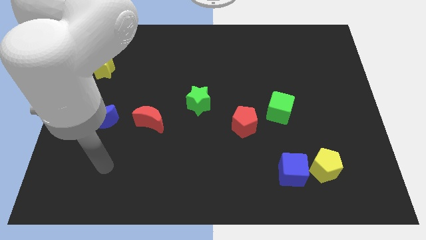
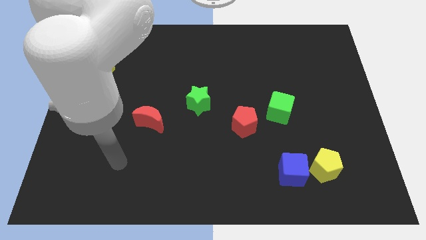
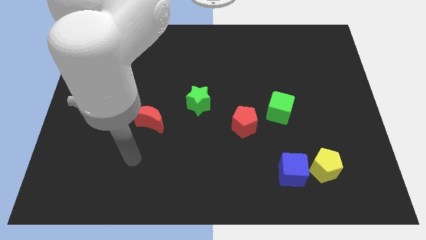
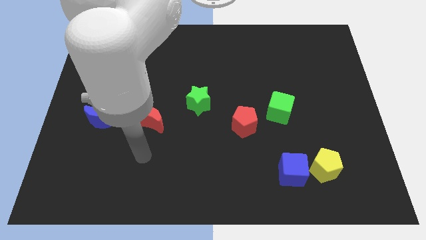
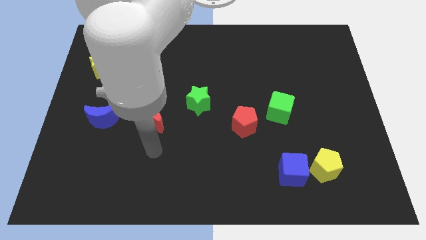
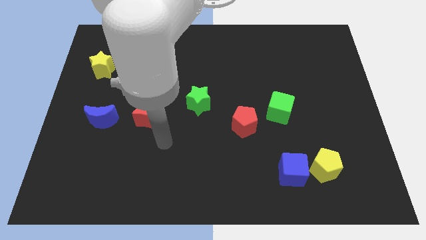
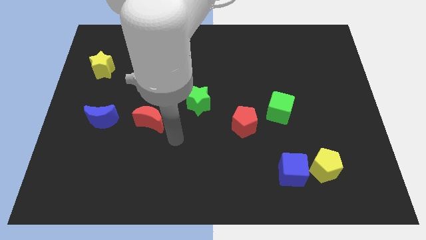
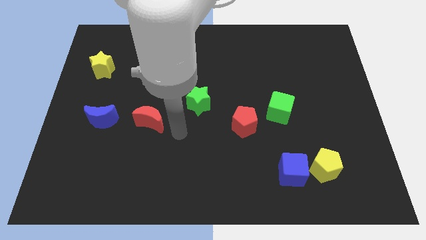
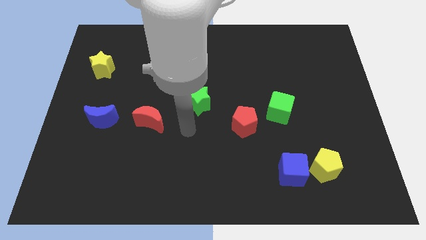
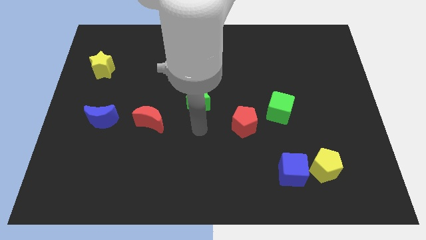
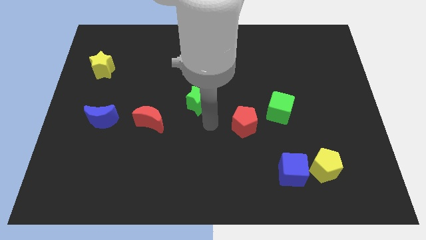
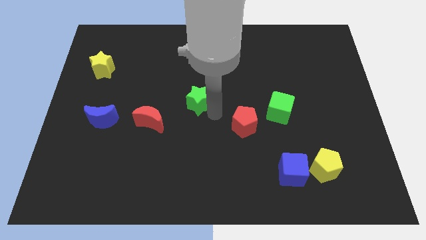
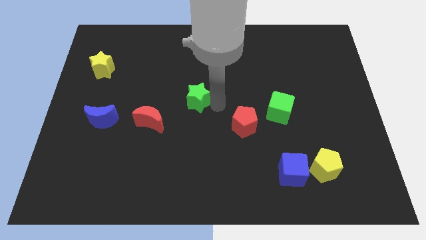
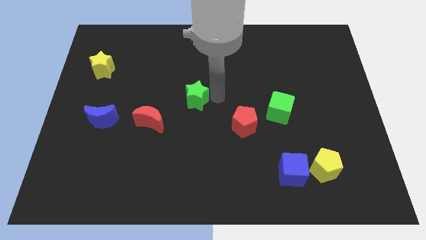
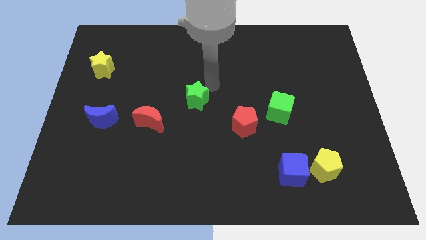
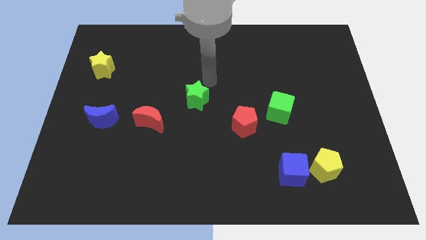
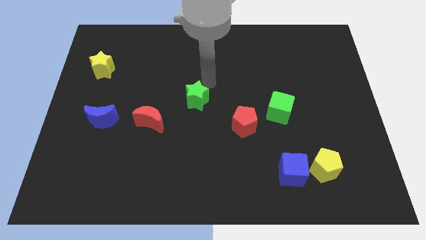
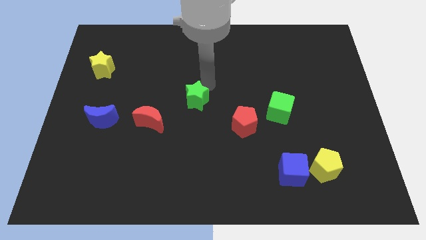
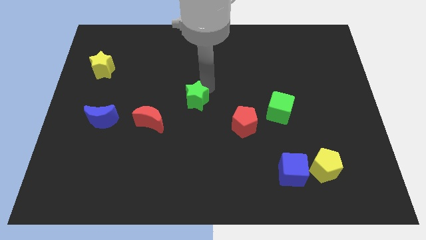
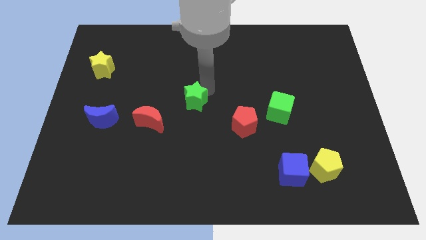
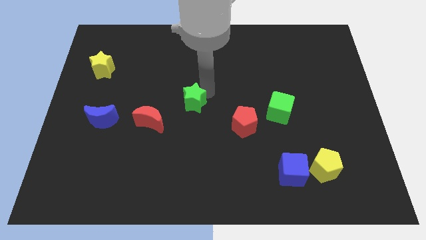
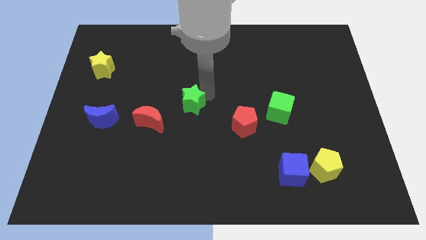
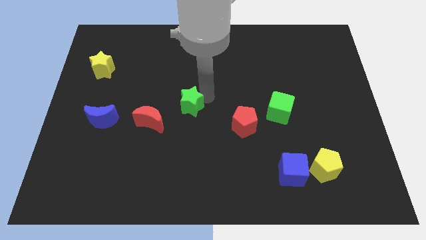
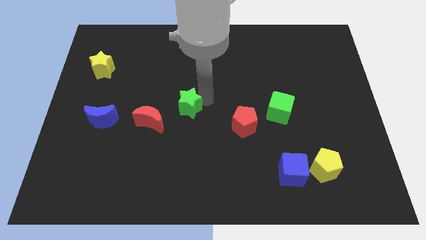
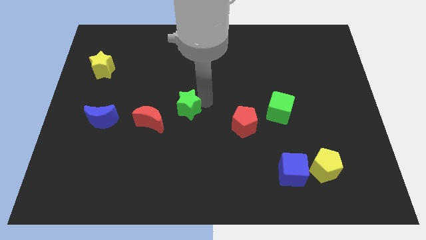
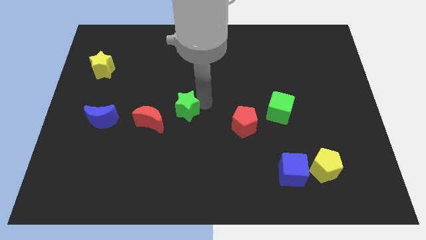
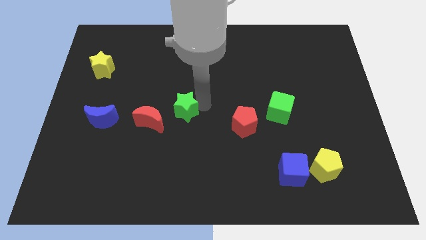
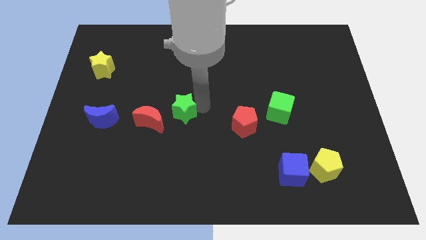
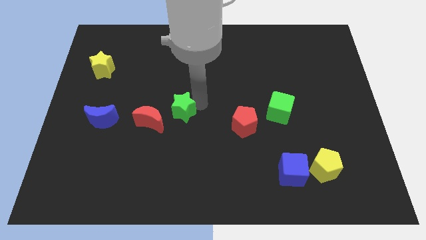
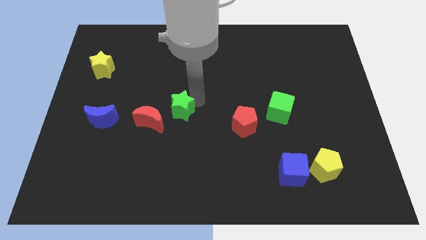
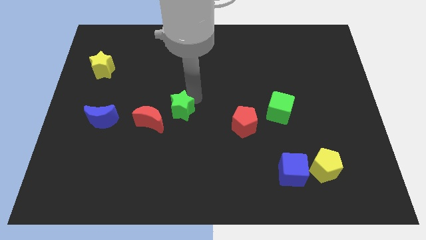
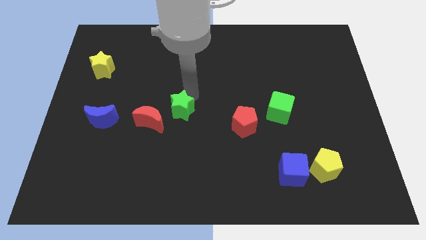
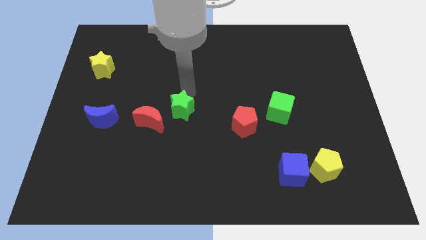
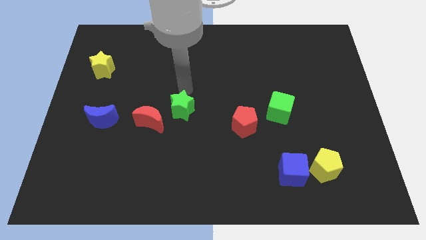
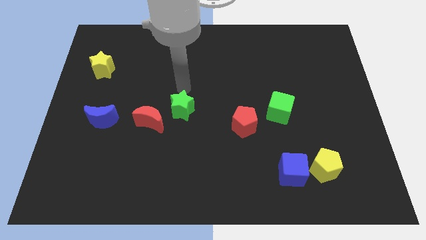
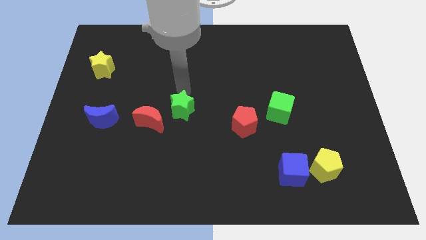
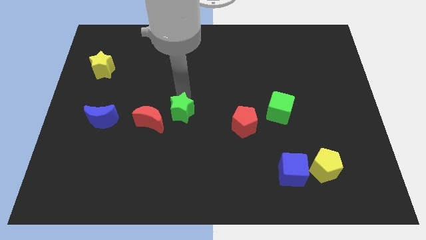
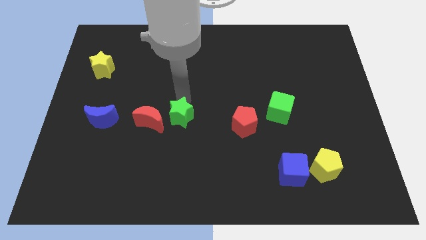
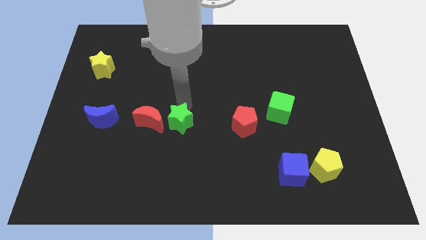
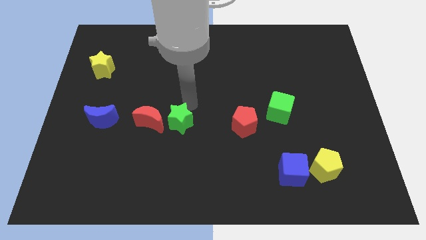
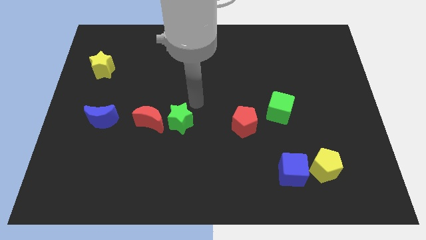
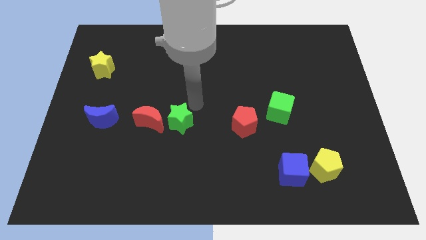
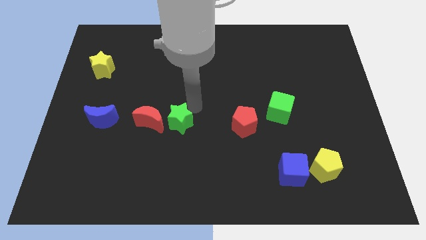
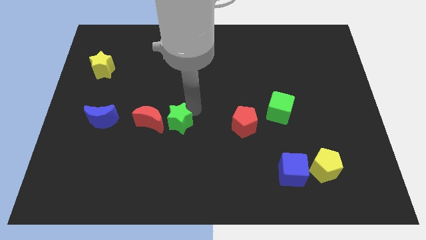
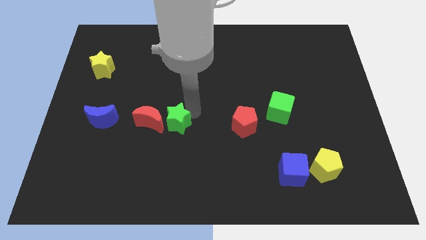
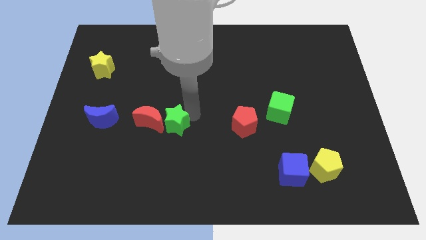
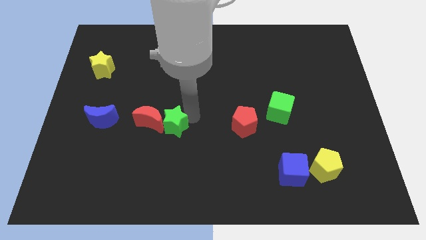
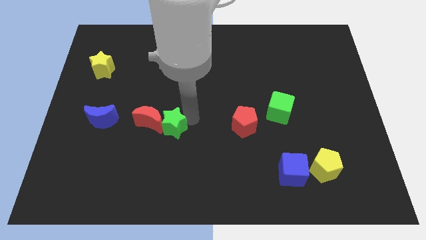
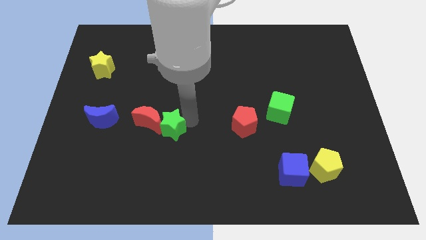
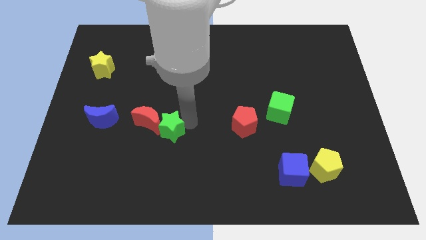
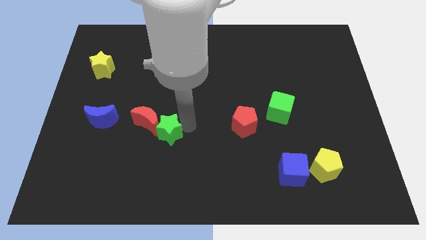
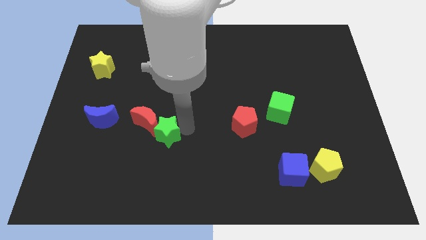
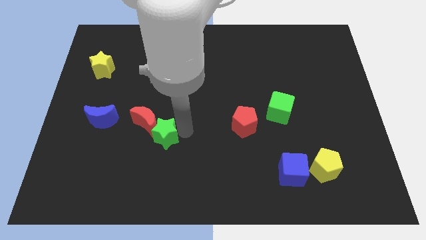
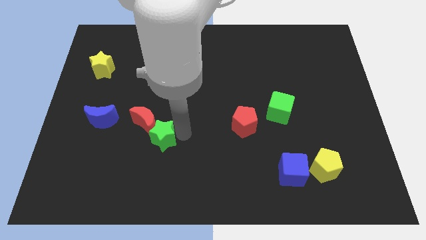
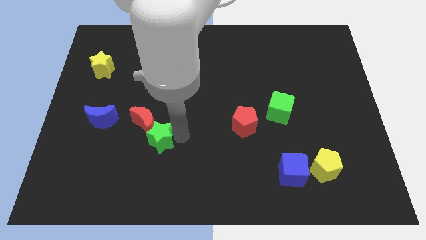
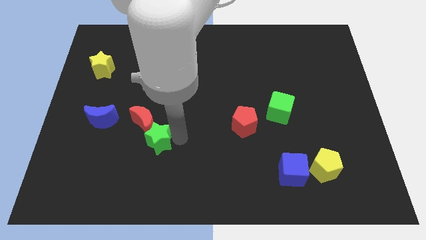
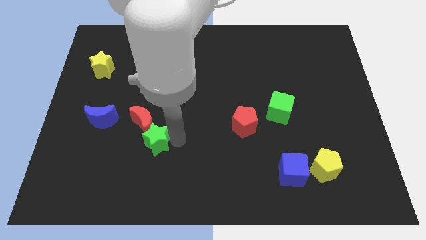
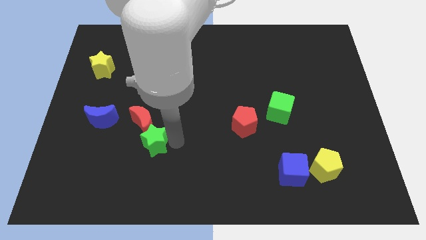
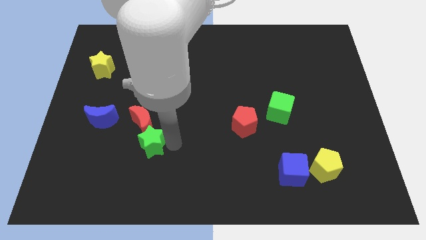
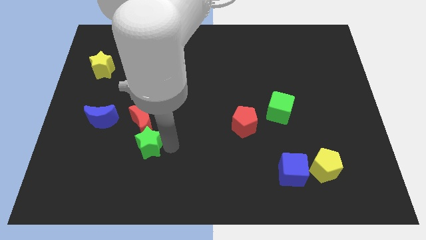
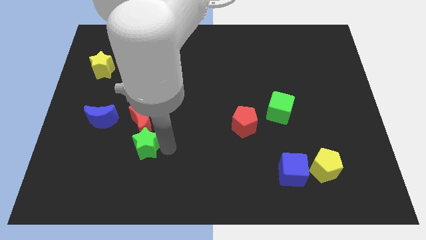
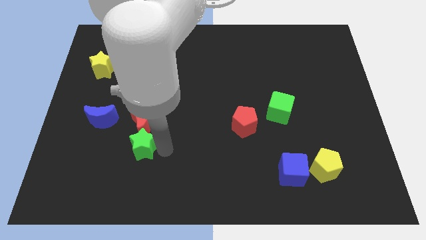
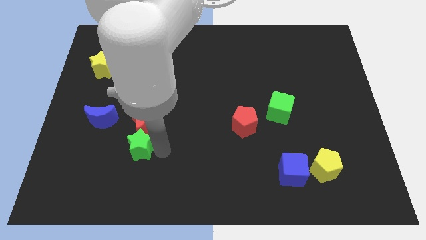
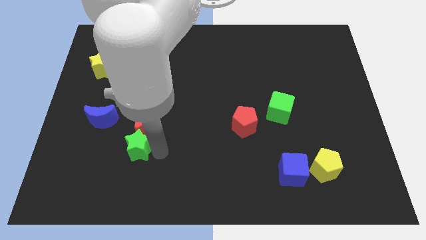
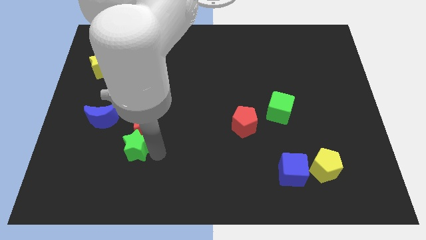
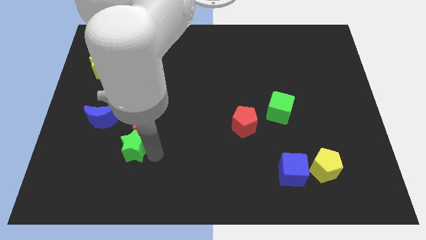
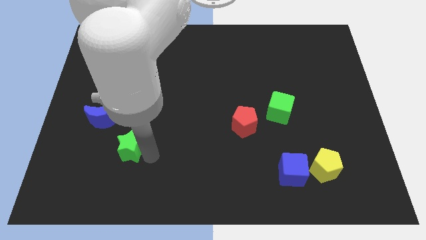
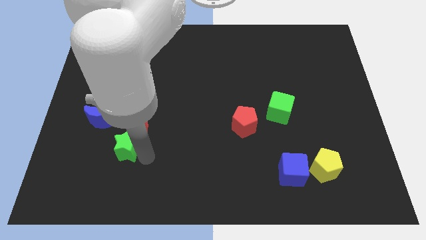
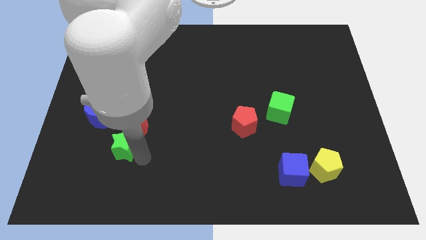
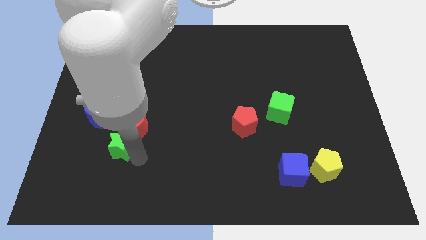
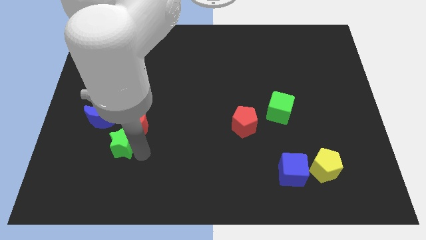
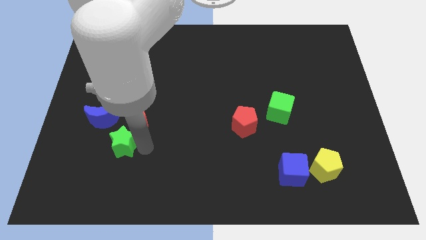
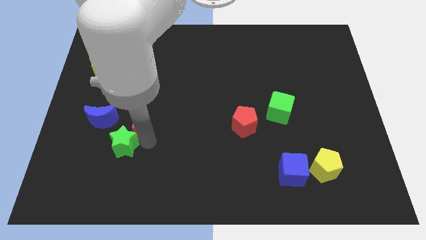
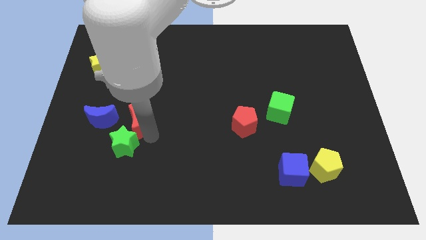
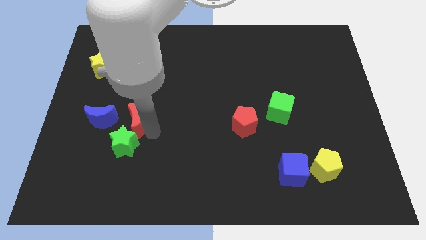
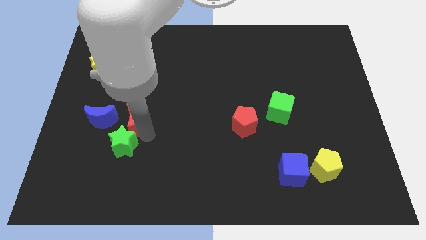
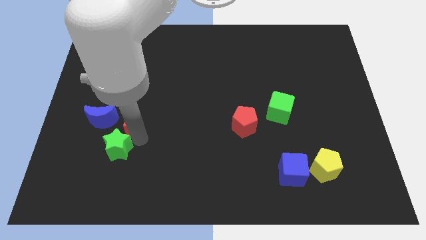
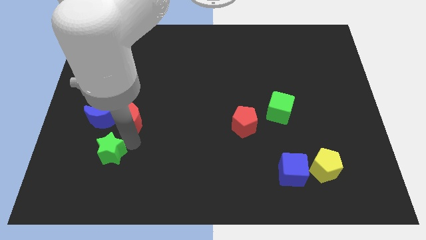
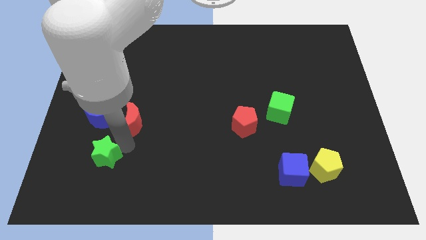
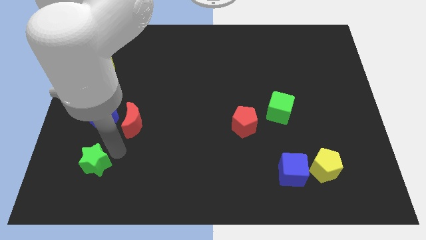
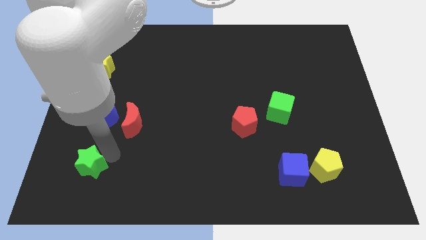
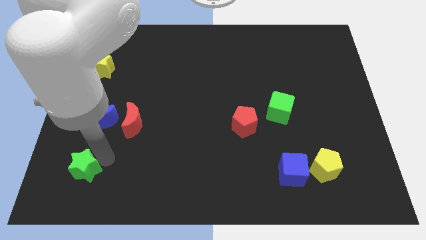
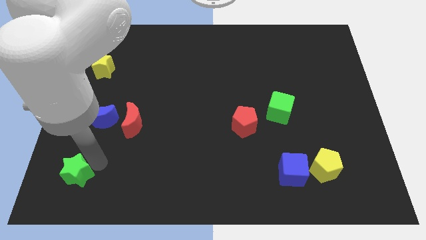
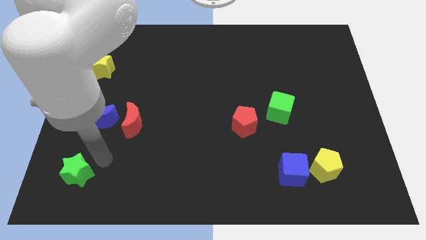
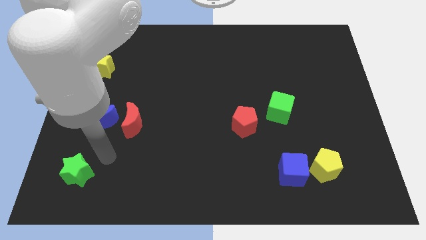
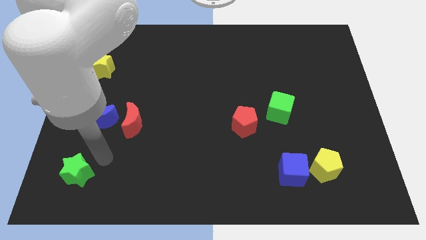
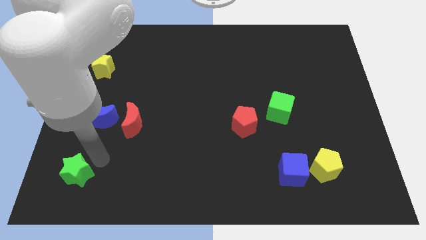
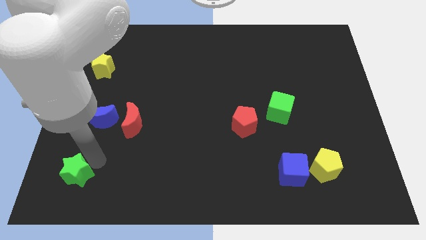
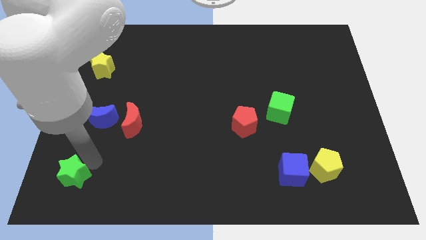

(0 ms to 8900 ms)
slide the green star to the lower left corner
